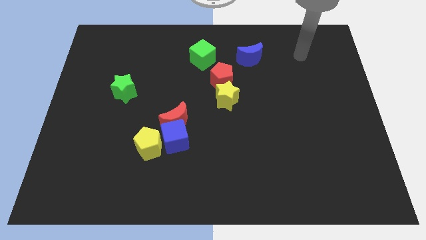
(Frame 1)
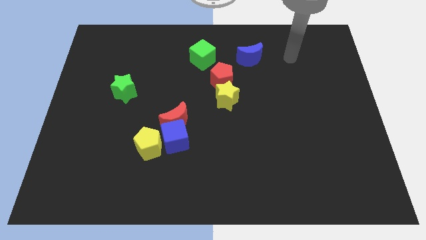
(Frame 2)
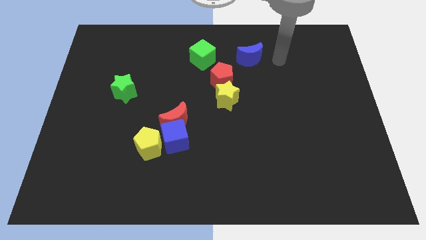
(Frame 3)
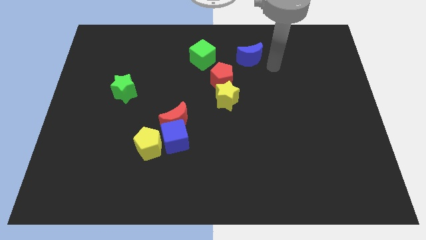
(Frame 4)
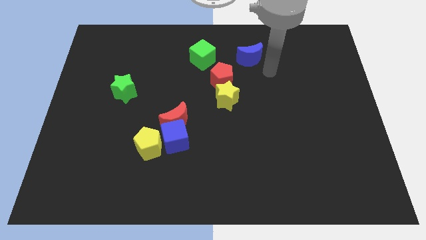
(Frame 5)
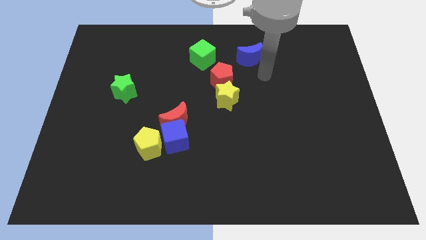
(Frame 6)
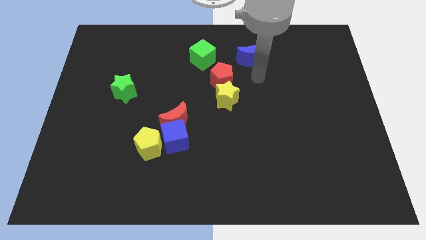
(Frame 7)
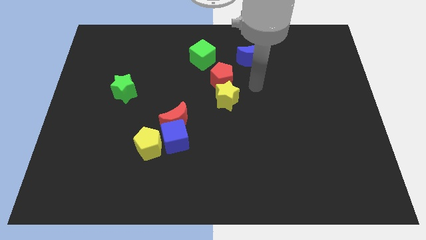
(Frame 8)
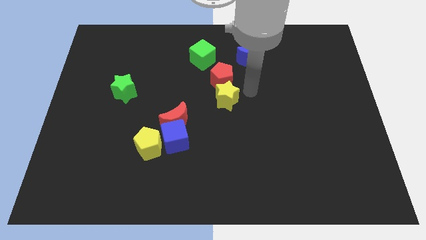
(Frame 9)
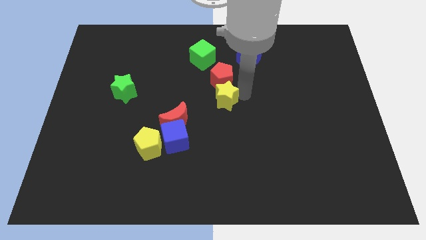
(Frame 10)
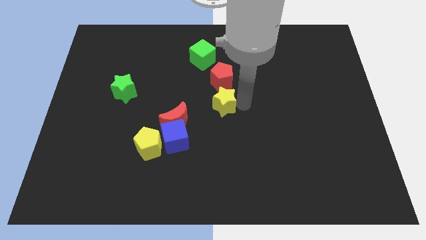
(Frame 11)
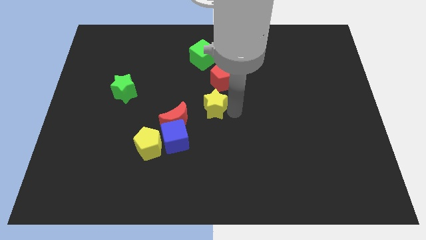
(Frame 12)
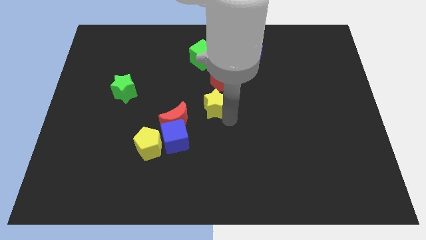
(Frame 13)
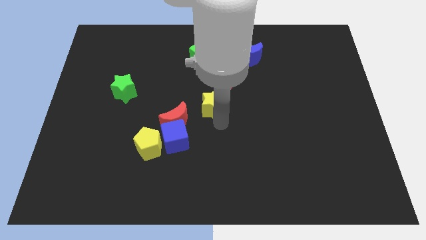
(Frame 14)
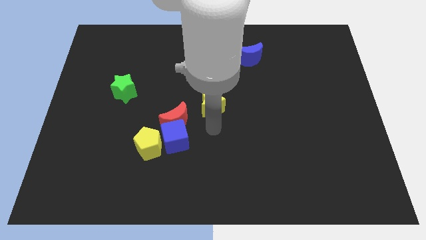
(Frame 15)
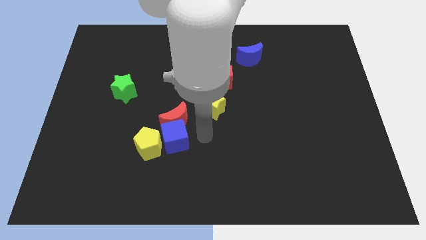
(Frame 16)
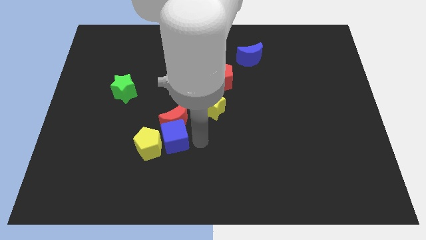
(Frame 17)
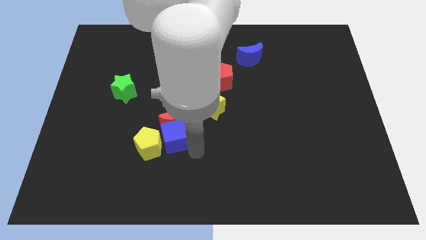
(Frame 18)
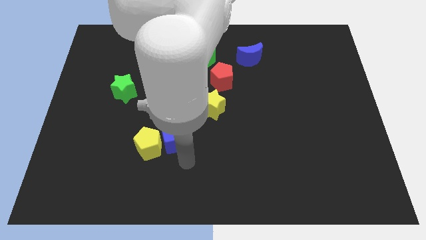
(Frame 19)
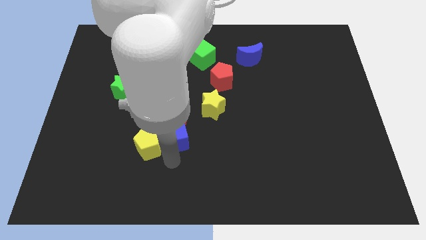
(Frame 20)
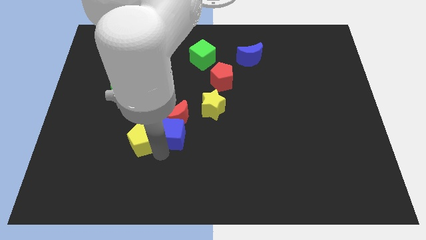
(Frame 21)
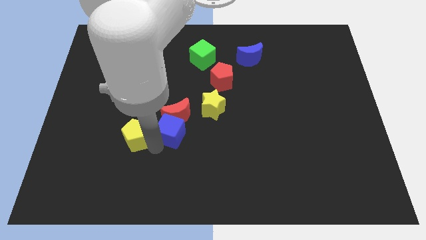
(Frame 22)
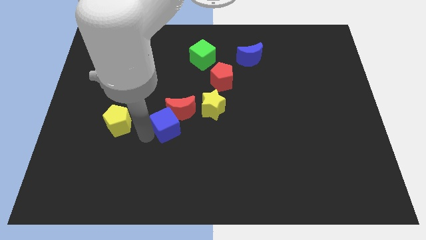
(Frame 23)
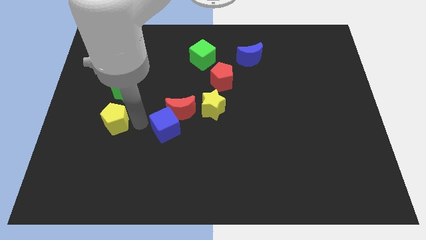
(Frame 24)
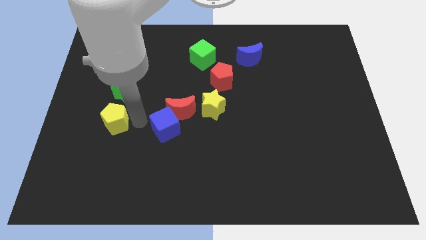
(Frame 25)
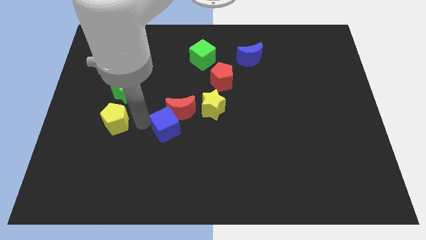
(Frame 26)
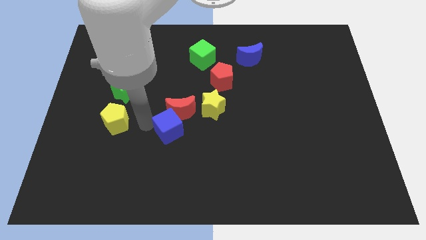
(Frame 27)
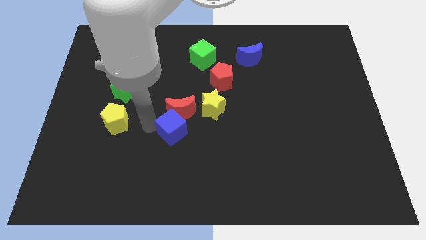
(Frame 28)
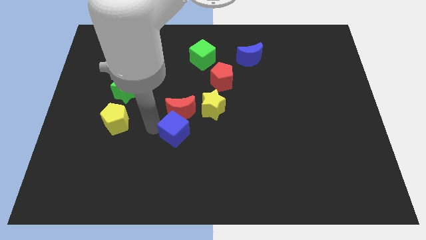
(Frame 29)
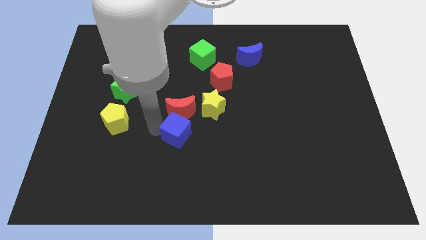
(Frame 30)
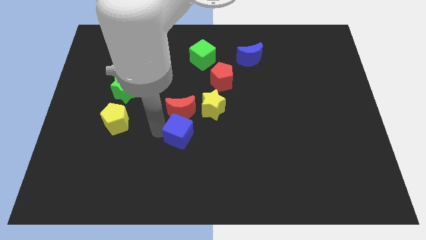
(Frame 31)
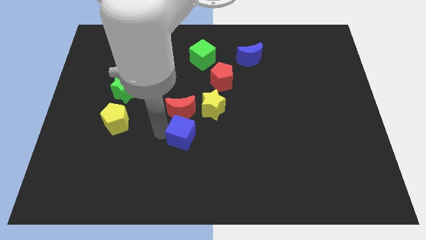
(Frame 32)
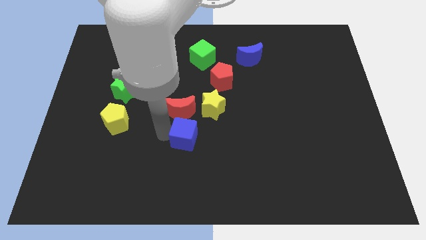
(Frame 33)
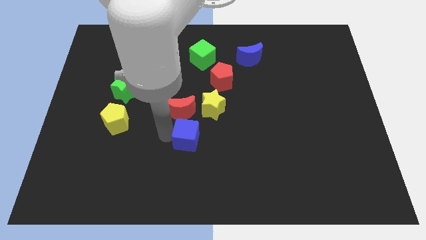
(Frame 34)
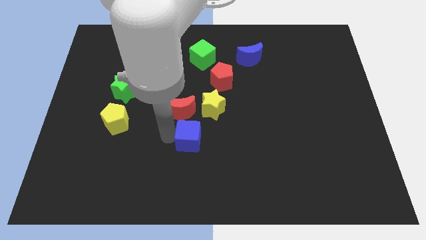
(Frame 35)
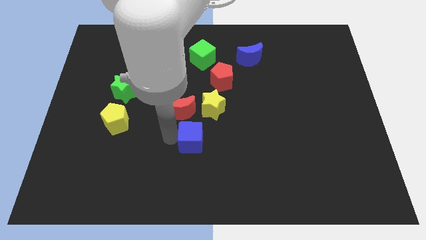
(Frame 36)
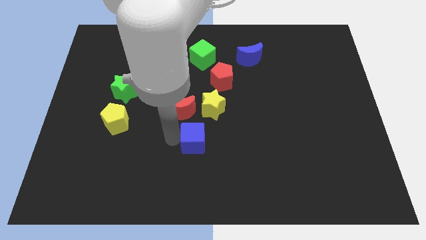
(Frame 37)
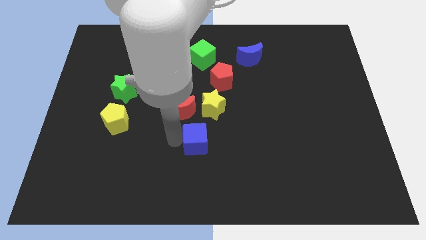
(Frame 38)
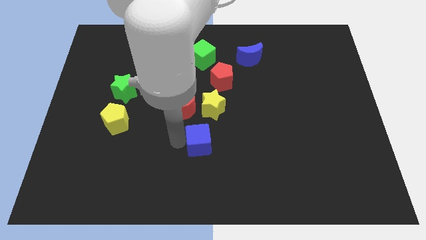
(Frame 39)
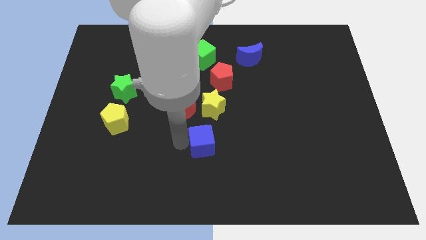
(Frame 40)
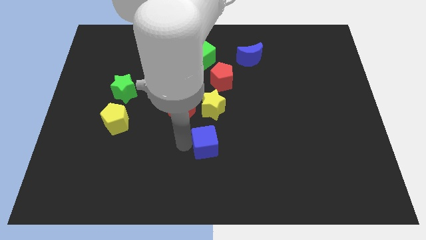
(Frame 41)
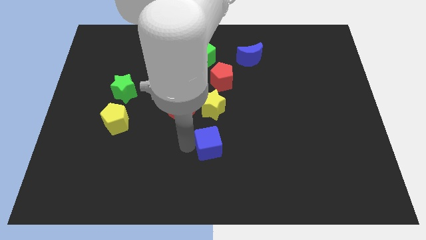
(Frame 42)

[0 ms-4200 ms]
slightly slide the blue cube to the right

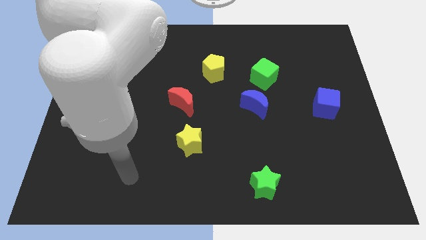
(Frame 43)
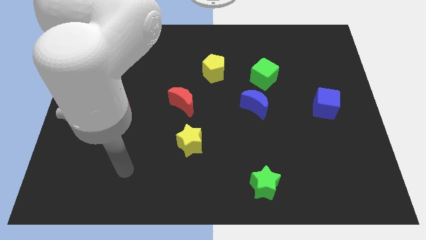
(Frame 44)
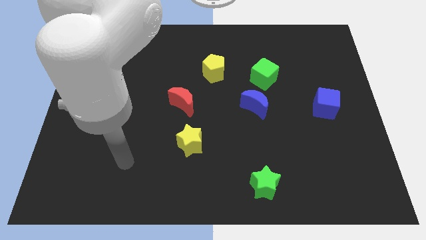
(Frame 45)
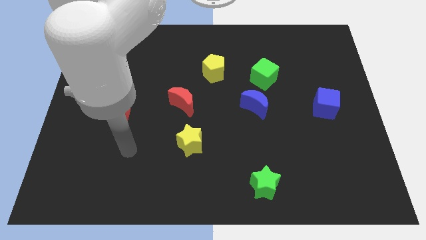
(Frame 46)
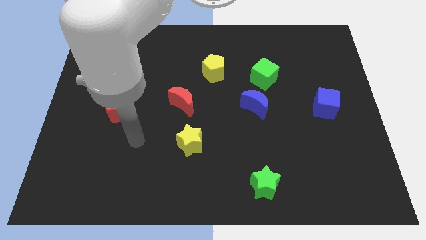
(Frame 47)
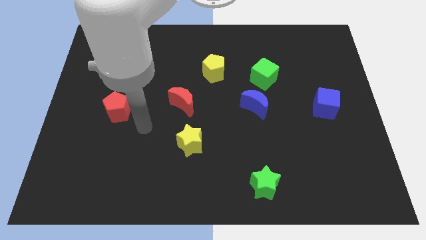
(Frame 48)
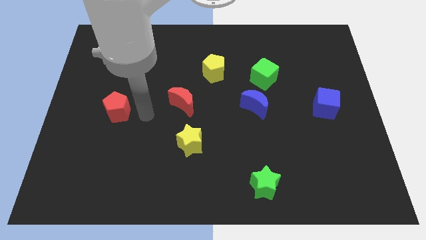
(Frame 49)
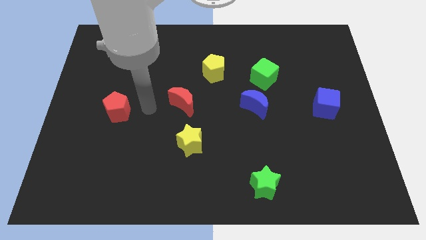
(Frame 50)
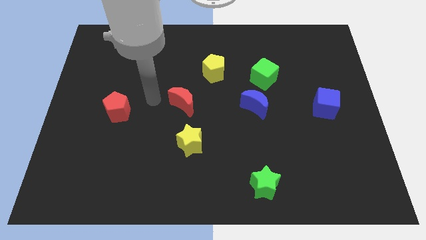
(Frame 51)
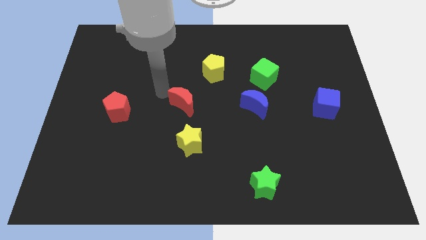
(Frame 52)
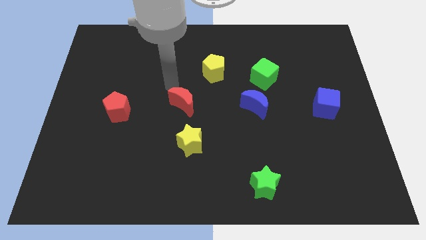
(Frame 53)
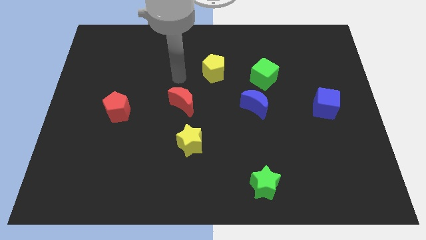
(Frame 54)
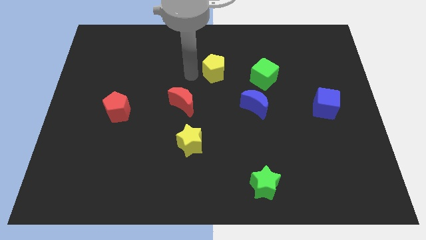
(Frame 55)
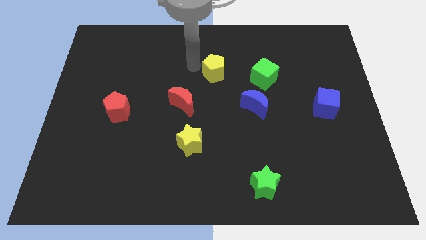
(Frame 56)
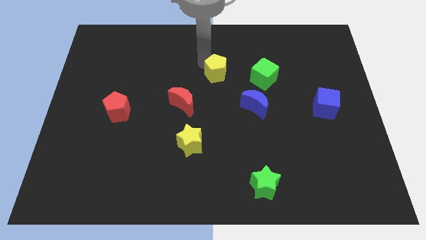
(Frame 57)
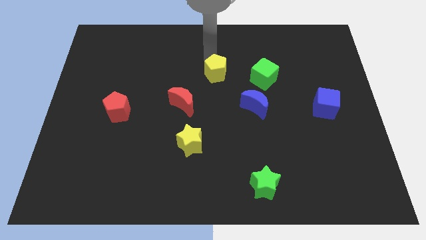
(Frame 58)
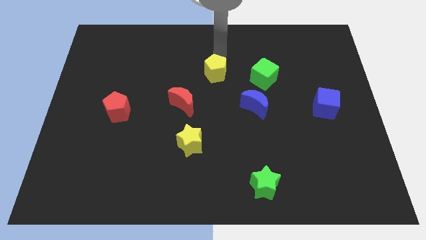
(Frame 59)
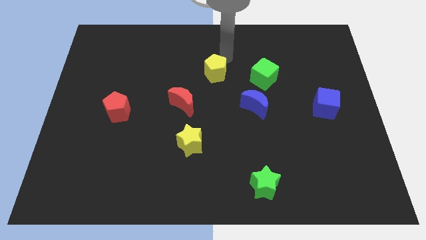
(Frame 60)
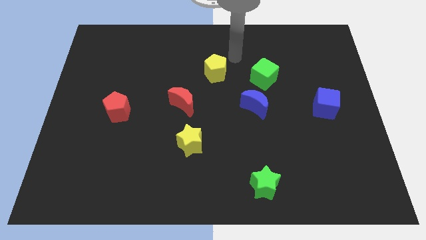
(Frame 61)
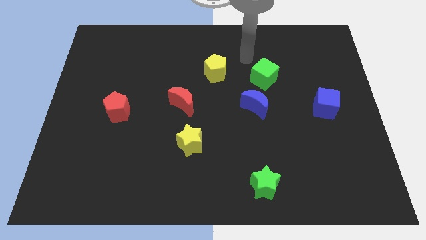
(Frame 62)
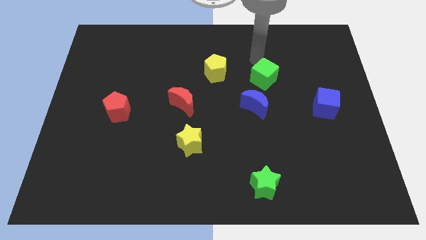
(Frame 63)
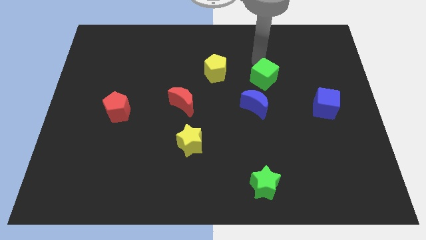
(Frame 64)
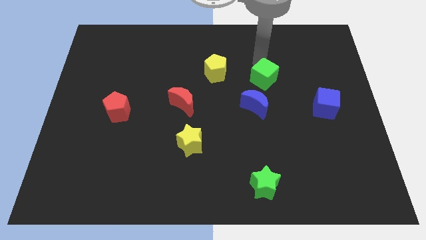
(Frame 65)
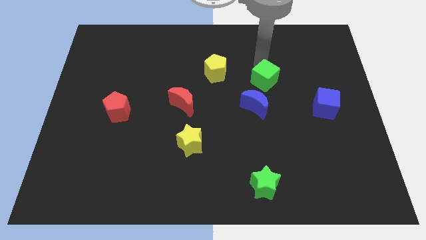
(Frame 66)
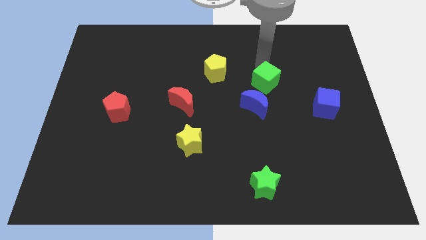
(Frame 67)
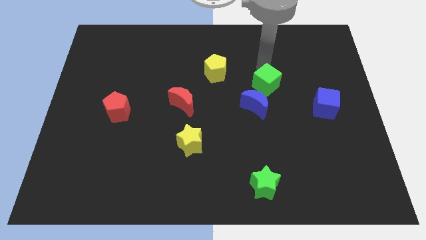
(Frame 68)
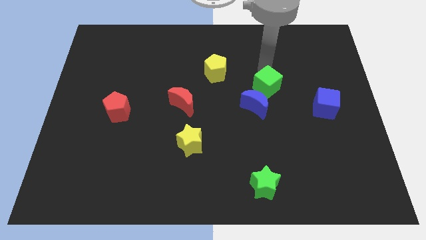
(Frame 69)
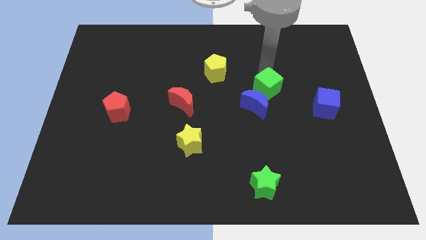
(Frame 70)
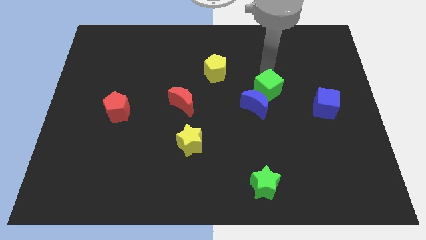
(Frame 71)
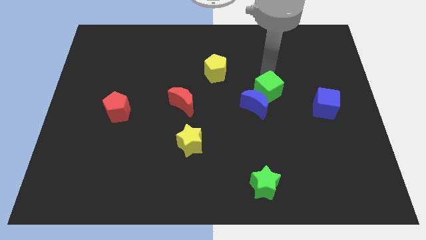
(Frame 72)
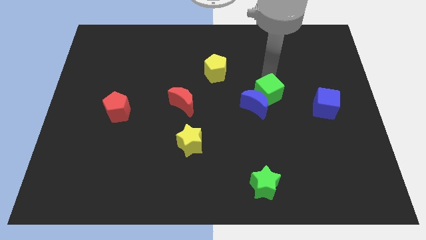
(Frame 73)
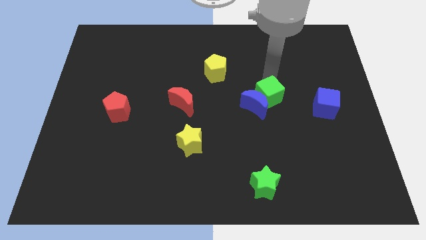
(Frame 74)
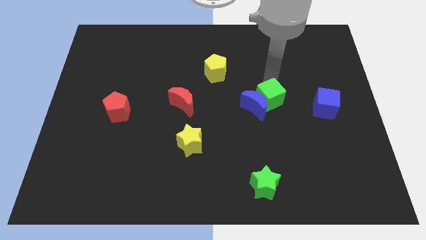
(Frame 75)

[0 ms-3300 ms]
slightly push the green cube downwards

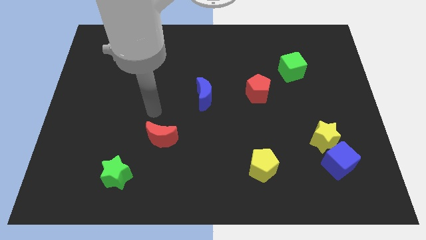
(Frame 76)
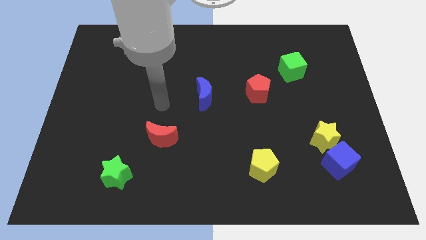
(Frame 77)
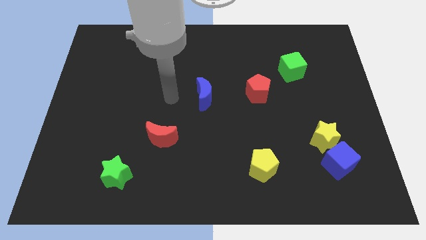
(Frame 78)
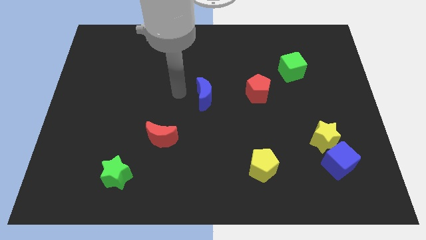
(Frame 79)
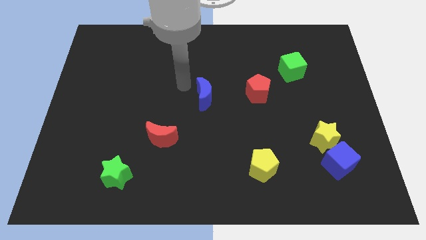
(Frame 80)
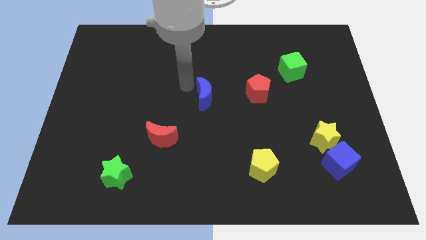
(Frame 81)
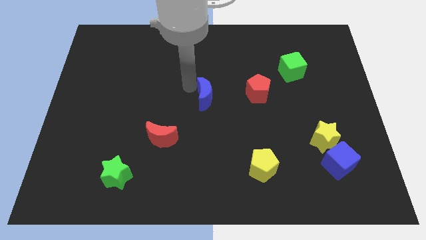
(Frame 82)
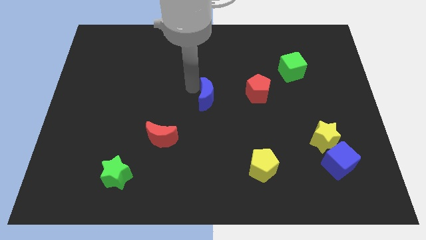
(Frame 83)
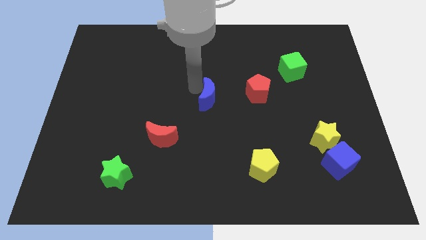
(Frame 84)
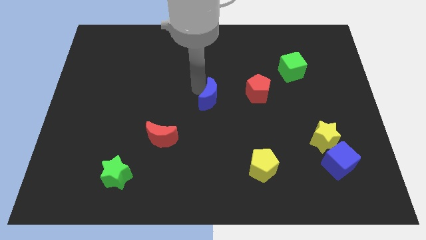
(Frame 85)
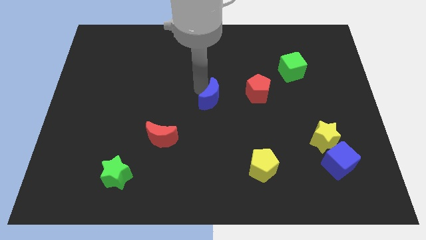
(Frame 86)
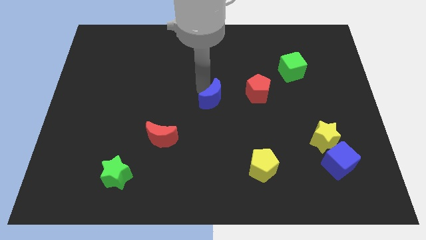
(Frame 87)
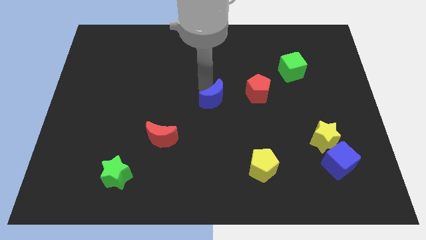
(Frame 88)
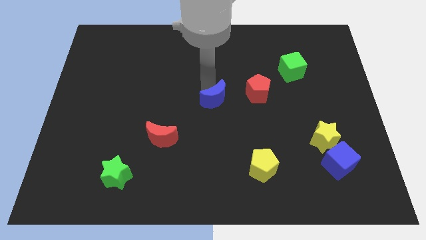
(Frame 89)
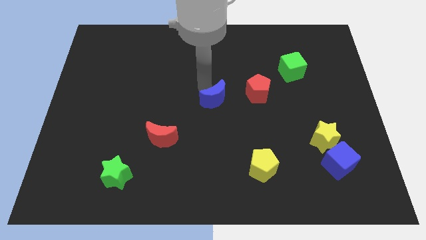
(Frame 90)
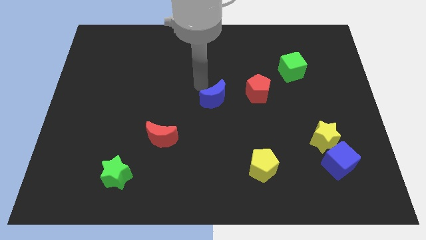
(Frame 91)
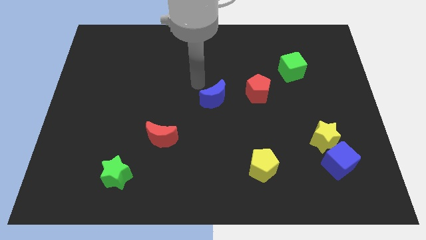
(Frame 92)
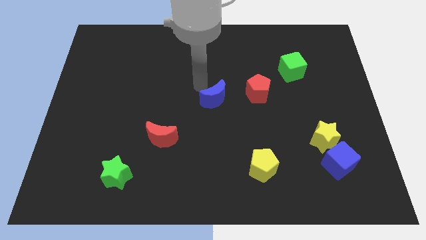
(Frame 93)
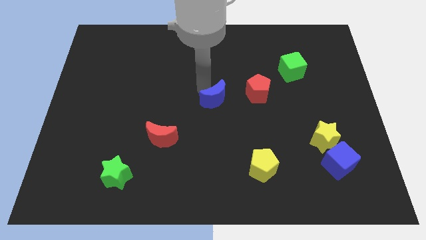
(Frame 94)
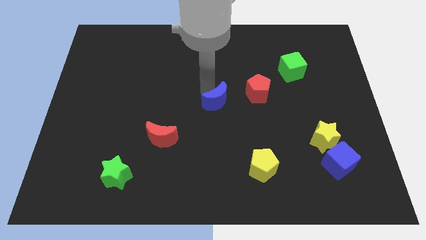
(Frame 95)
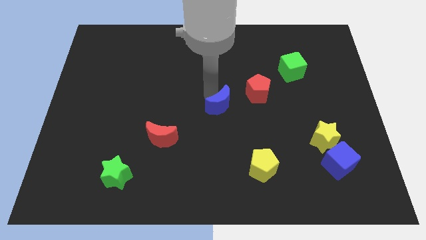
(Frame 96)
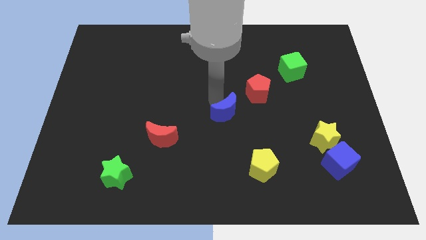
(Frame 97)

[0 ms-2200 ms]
slightly move the blue moon diagonally down and to the right
